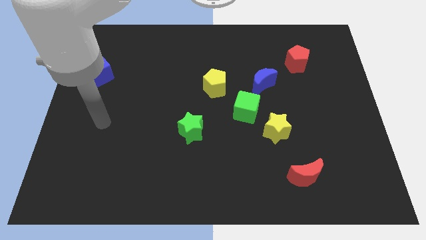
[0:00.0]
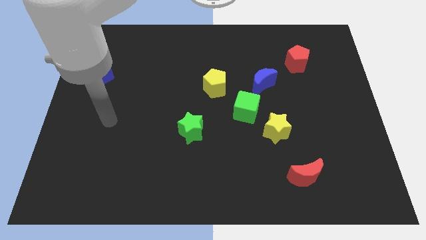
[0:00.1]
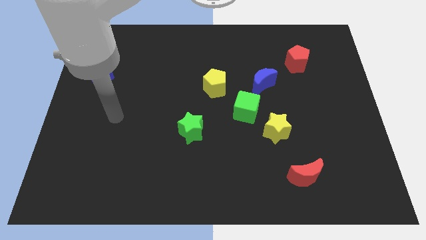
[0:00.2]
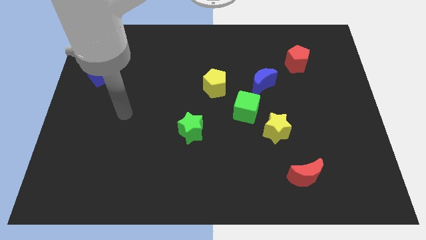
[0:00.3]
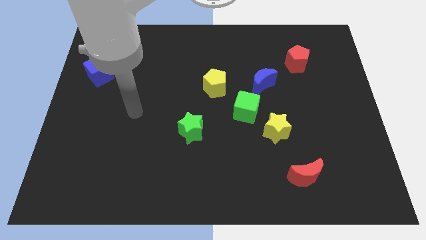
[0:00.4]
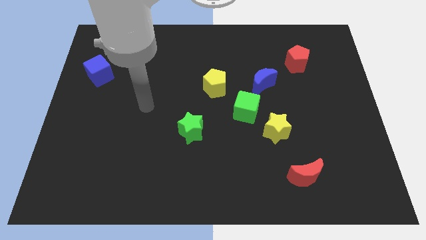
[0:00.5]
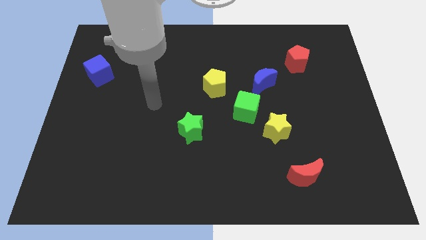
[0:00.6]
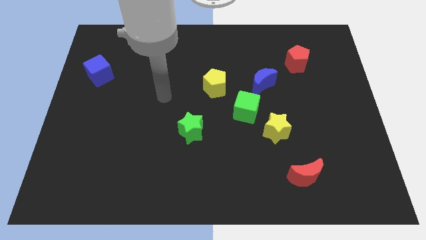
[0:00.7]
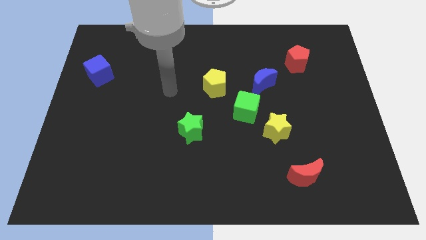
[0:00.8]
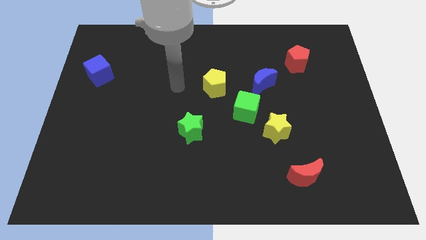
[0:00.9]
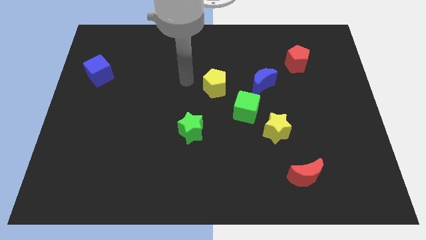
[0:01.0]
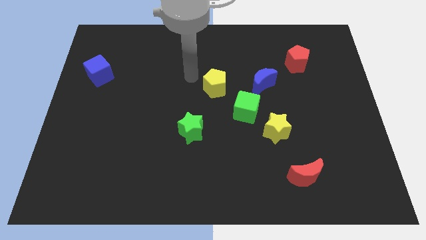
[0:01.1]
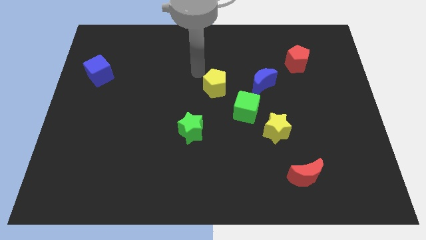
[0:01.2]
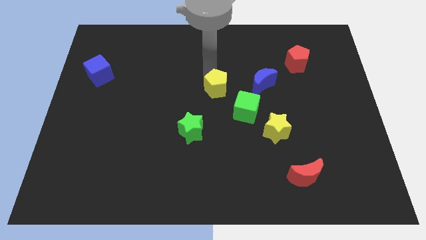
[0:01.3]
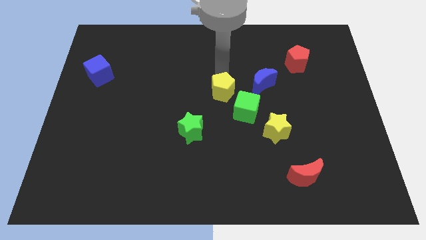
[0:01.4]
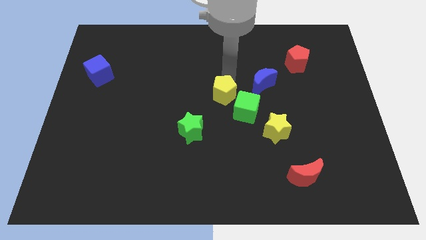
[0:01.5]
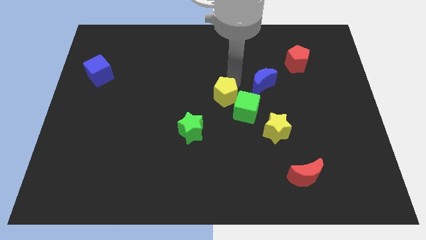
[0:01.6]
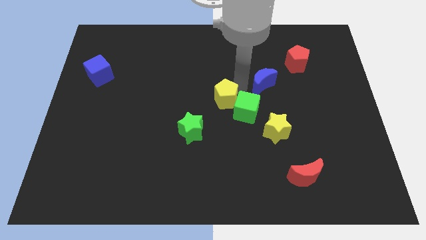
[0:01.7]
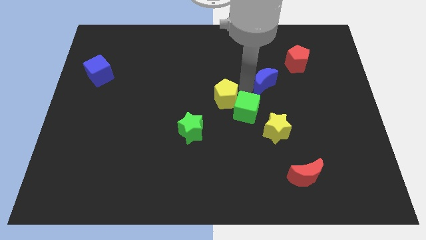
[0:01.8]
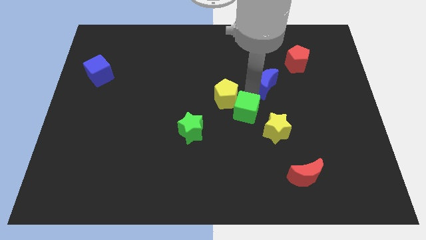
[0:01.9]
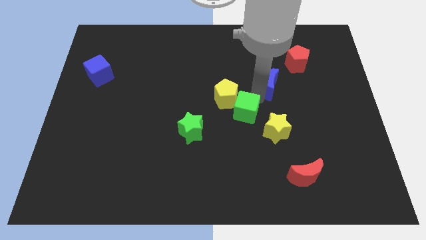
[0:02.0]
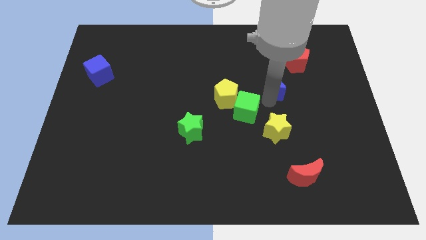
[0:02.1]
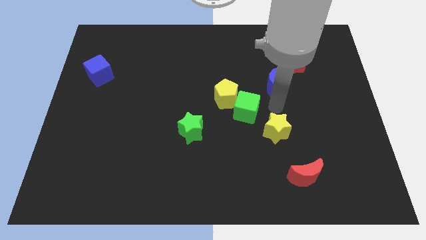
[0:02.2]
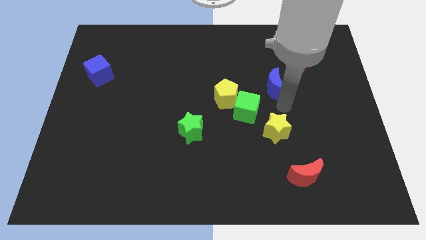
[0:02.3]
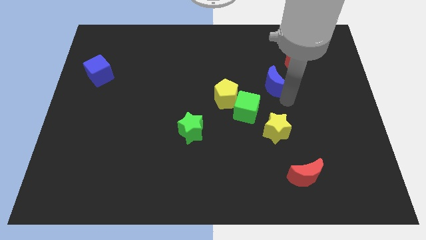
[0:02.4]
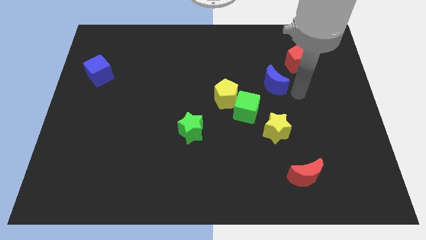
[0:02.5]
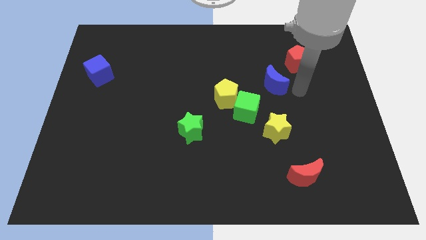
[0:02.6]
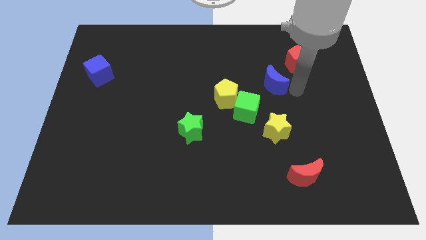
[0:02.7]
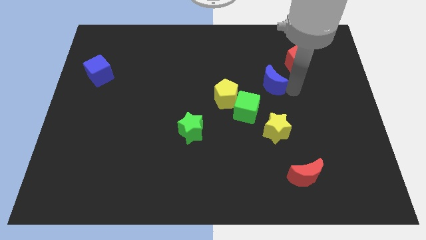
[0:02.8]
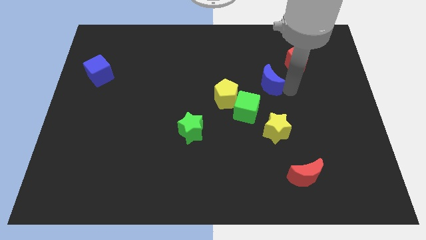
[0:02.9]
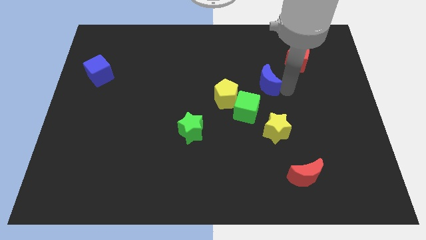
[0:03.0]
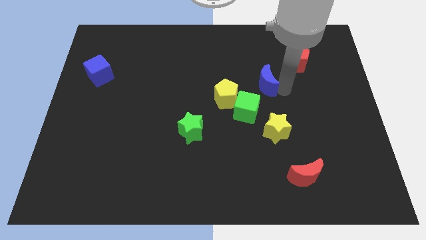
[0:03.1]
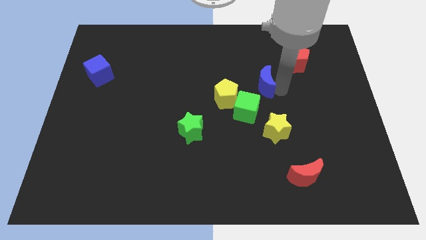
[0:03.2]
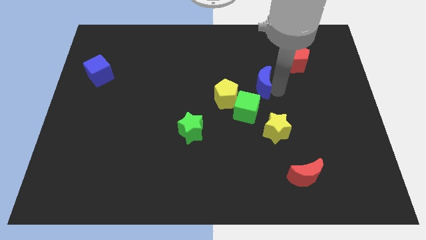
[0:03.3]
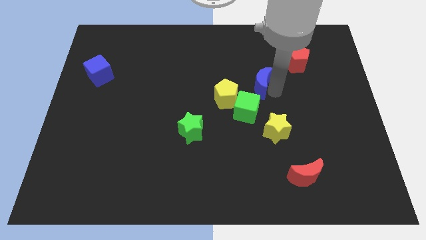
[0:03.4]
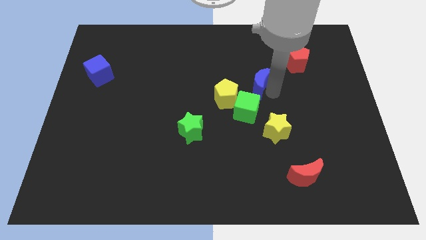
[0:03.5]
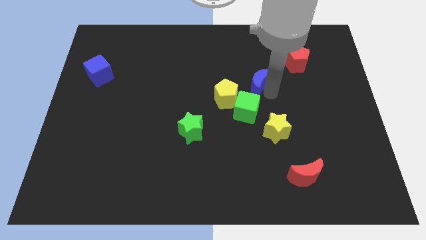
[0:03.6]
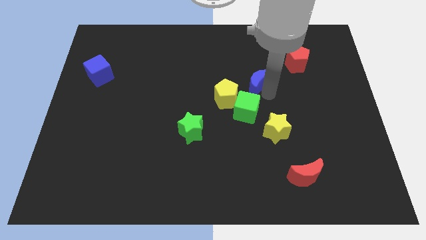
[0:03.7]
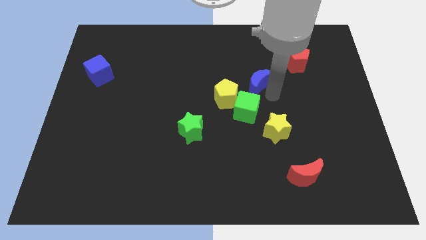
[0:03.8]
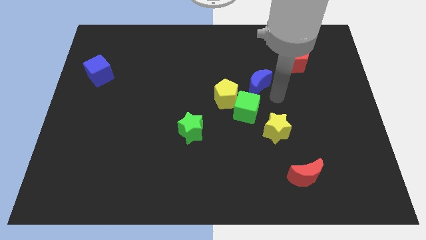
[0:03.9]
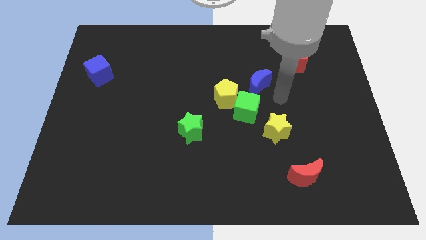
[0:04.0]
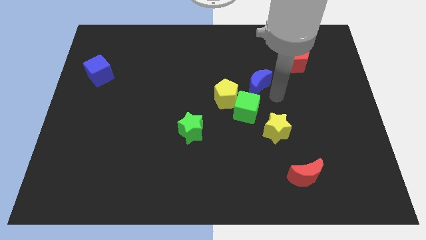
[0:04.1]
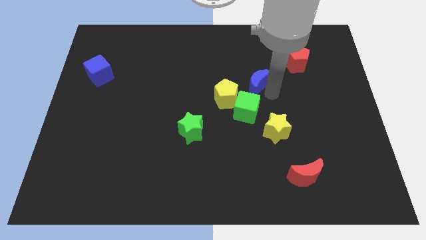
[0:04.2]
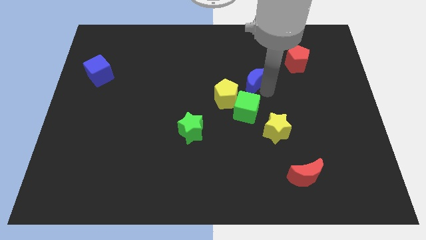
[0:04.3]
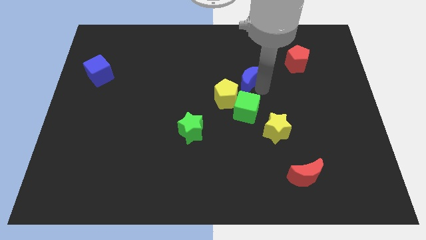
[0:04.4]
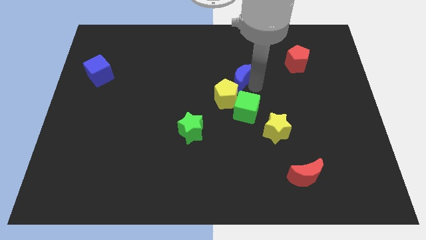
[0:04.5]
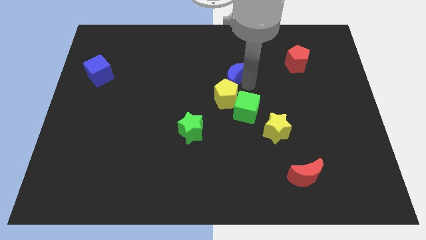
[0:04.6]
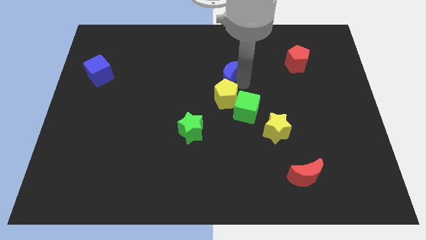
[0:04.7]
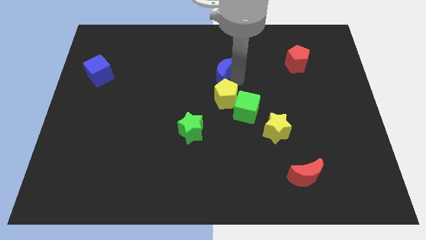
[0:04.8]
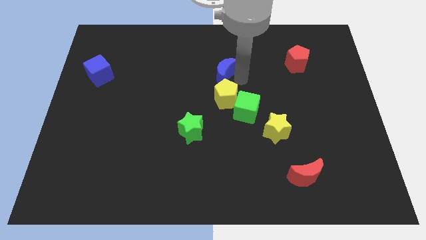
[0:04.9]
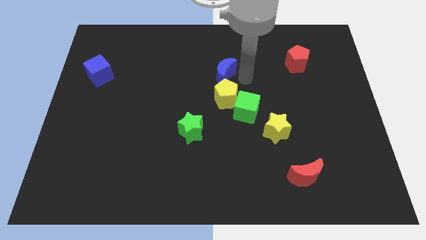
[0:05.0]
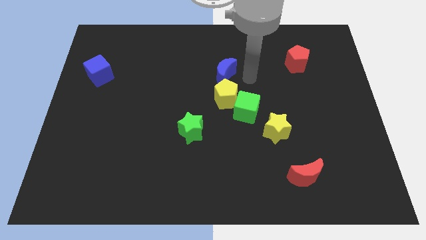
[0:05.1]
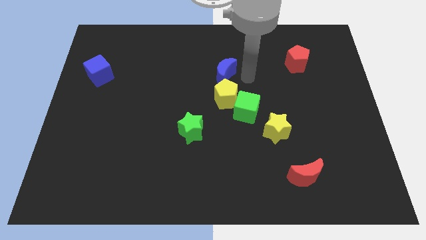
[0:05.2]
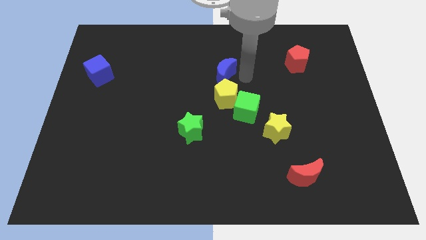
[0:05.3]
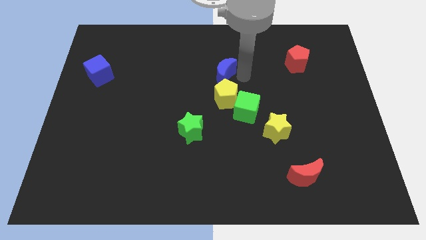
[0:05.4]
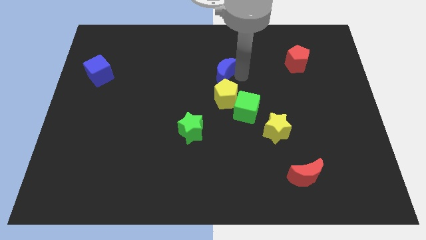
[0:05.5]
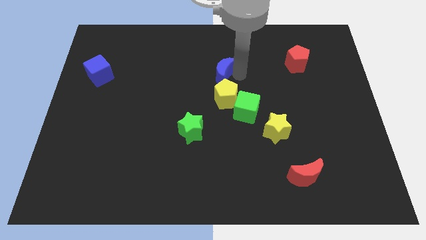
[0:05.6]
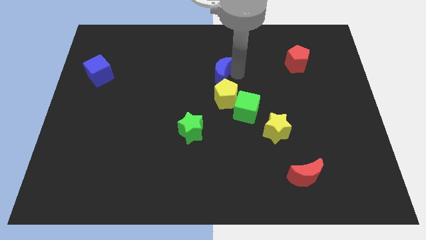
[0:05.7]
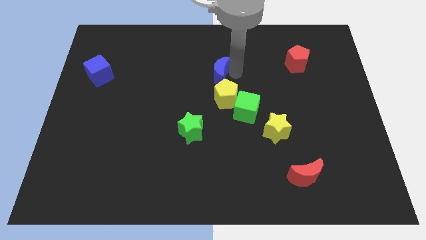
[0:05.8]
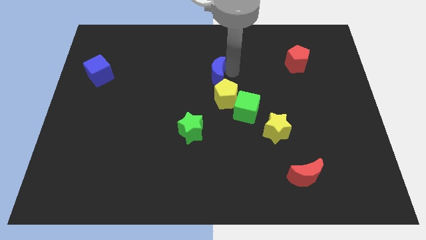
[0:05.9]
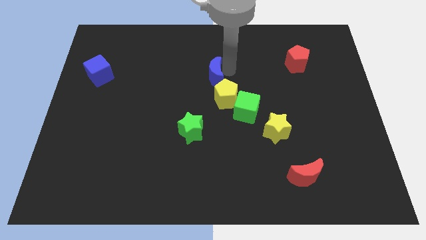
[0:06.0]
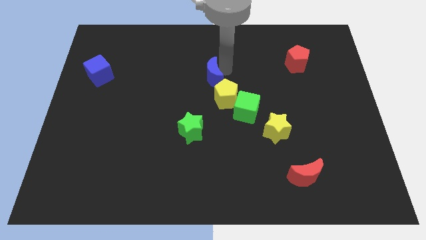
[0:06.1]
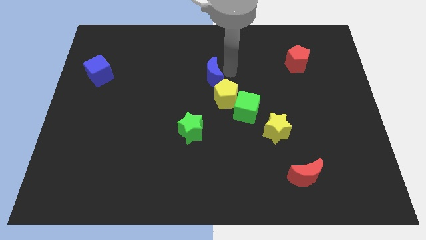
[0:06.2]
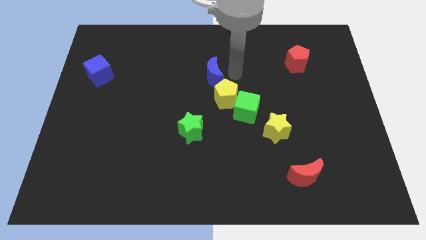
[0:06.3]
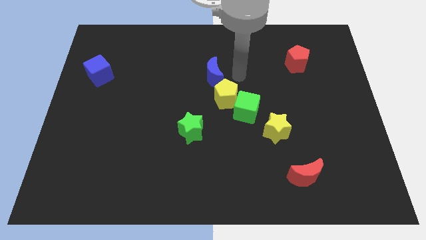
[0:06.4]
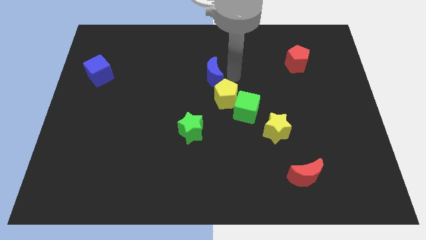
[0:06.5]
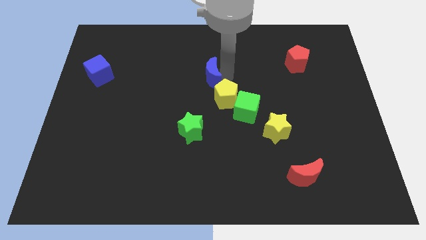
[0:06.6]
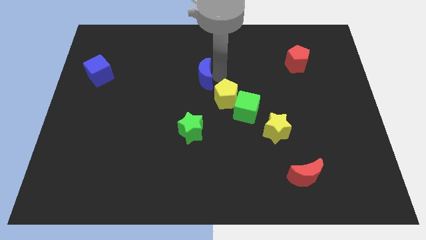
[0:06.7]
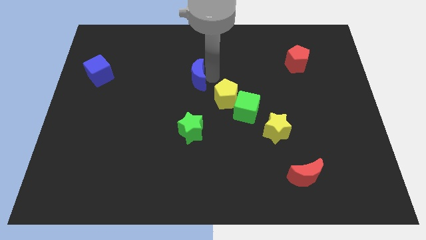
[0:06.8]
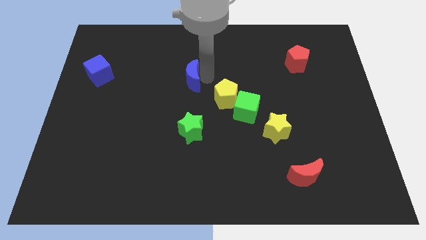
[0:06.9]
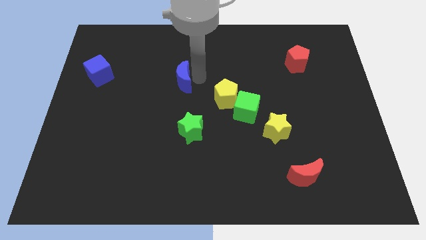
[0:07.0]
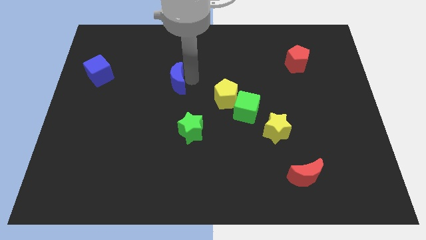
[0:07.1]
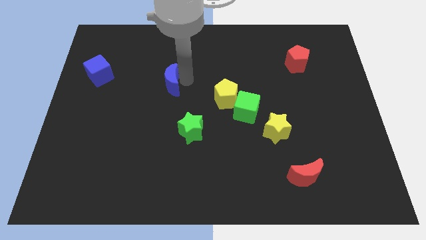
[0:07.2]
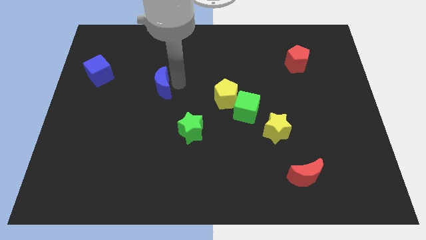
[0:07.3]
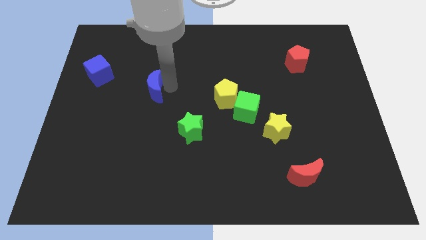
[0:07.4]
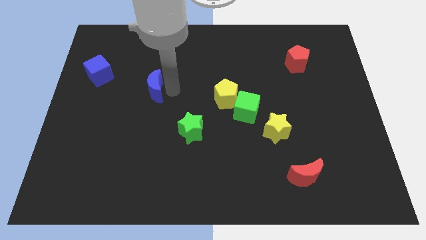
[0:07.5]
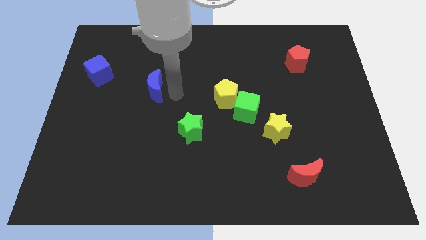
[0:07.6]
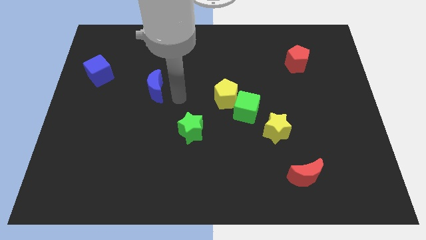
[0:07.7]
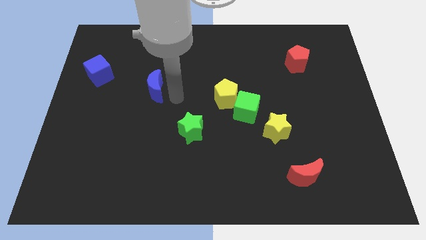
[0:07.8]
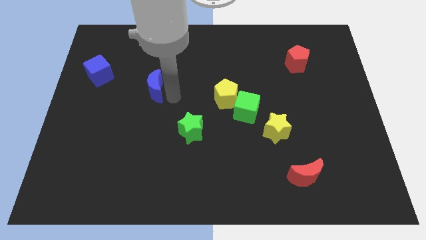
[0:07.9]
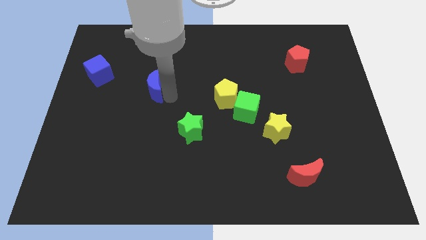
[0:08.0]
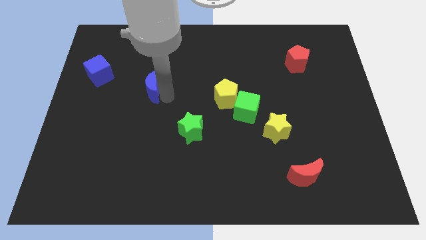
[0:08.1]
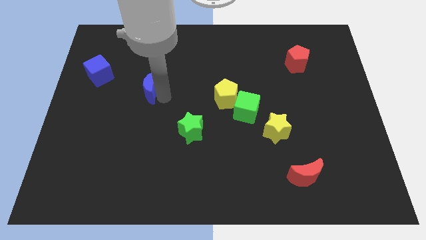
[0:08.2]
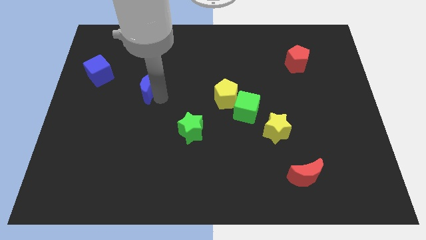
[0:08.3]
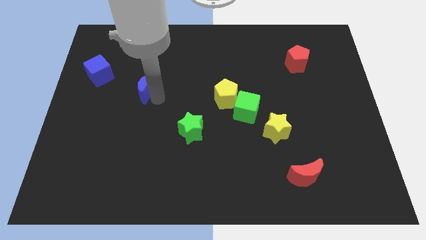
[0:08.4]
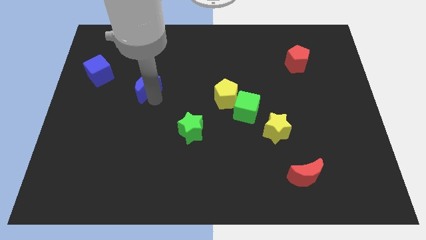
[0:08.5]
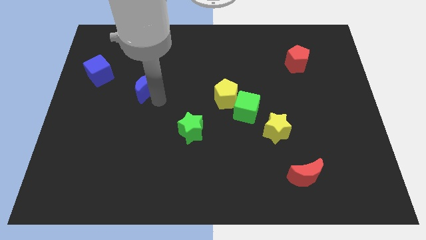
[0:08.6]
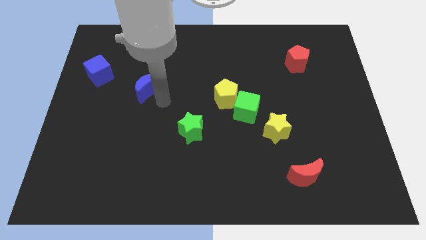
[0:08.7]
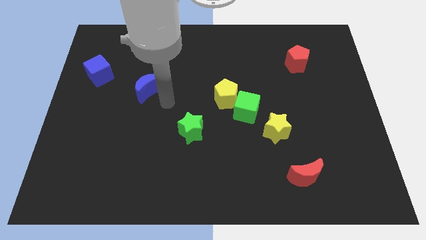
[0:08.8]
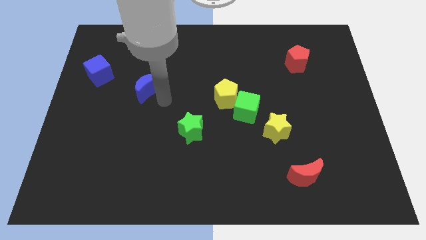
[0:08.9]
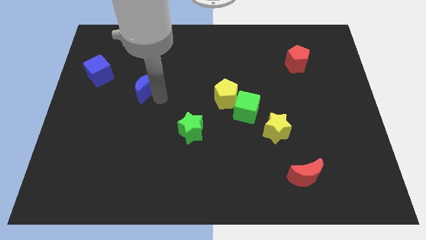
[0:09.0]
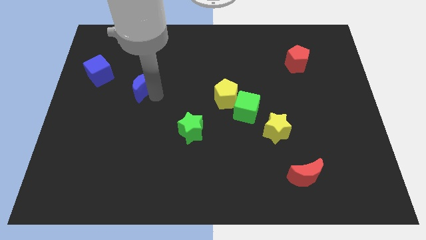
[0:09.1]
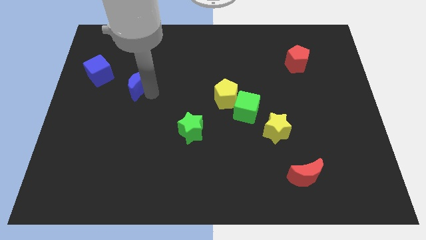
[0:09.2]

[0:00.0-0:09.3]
put the blue moon to the bottom right of the blue cube
